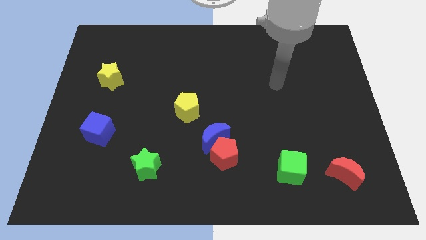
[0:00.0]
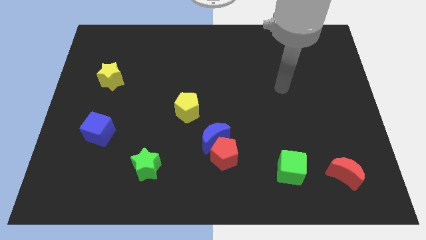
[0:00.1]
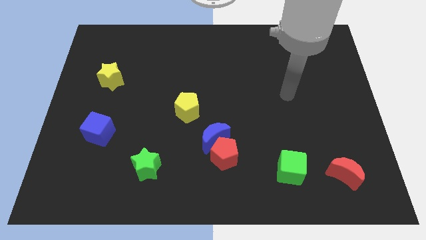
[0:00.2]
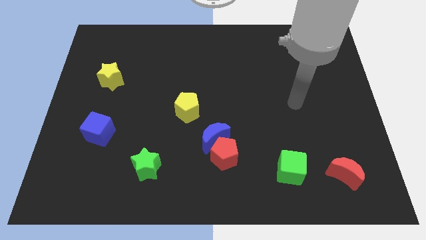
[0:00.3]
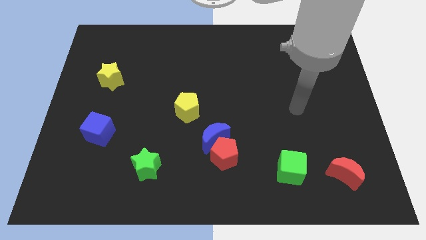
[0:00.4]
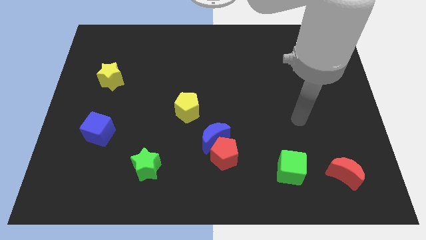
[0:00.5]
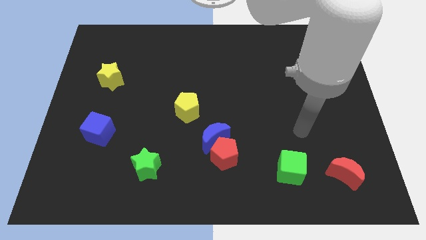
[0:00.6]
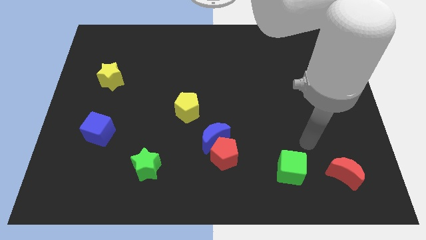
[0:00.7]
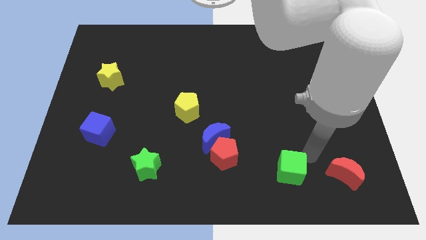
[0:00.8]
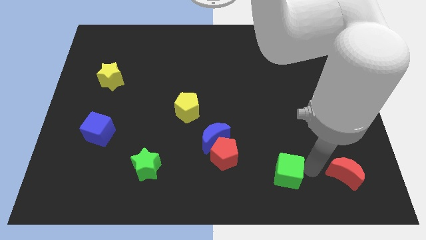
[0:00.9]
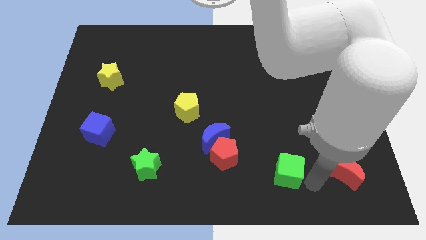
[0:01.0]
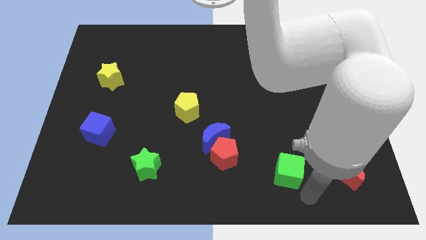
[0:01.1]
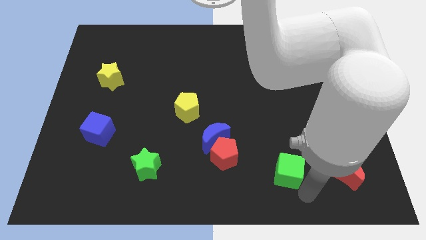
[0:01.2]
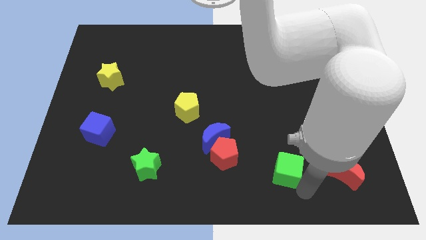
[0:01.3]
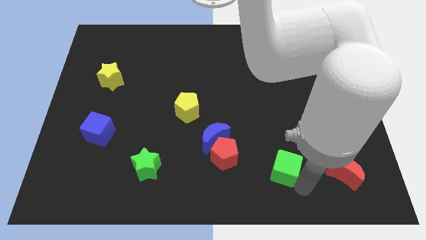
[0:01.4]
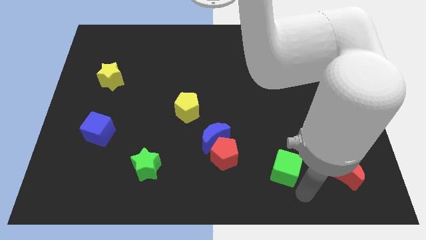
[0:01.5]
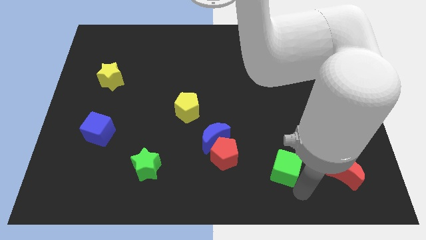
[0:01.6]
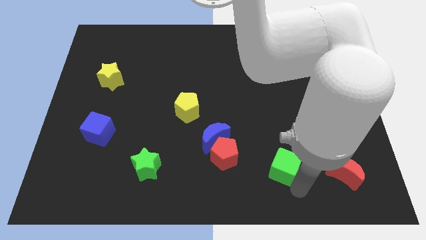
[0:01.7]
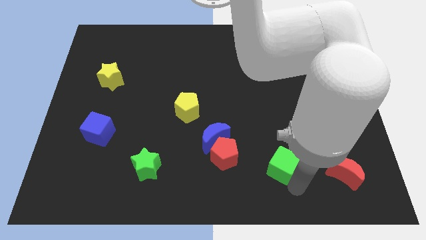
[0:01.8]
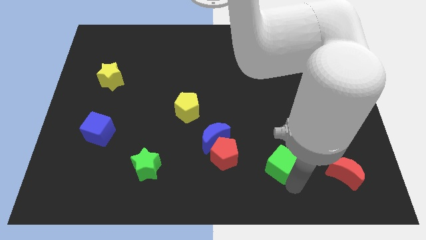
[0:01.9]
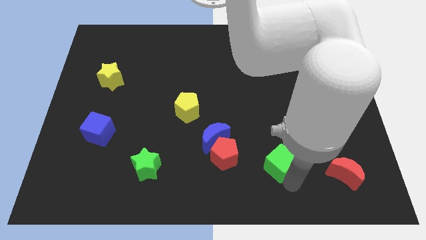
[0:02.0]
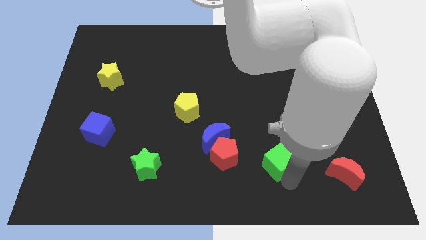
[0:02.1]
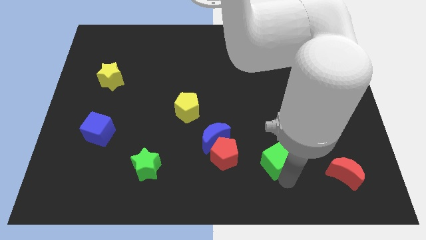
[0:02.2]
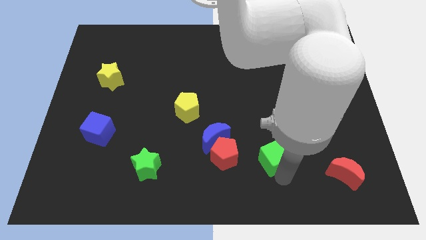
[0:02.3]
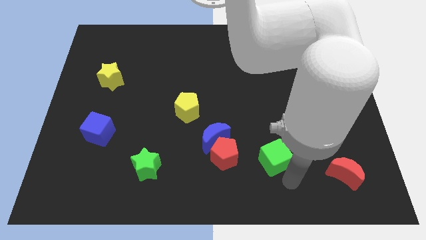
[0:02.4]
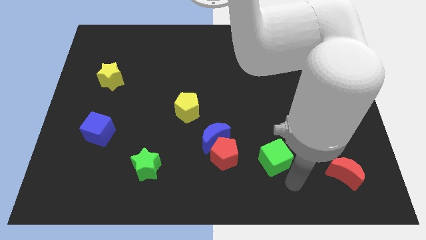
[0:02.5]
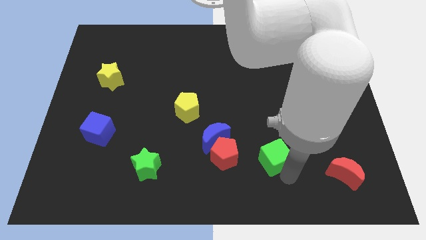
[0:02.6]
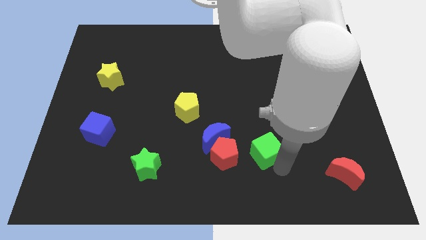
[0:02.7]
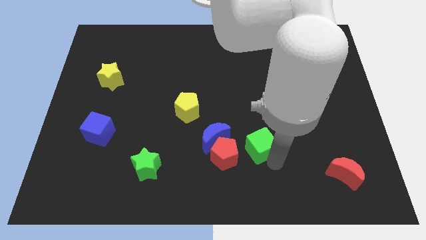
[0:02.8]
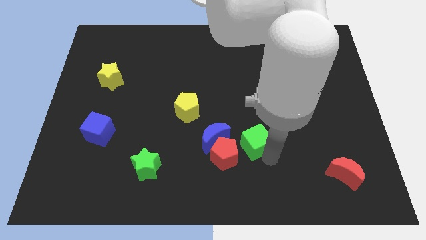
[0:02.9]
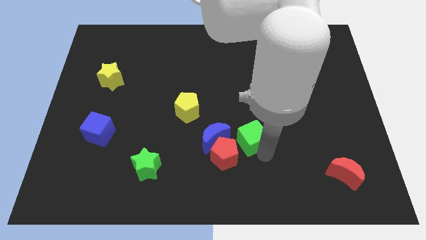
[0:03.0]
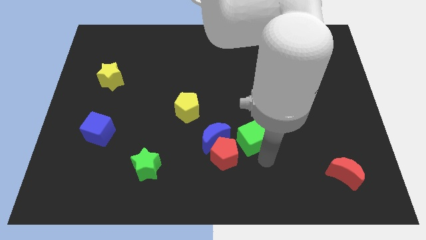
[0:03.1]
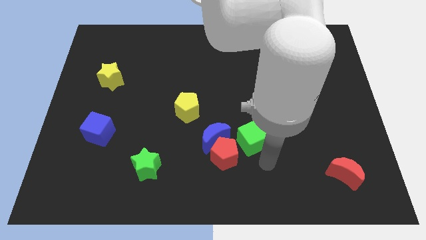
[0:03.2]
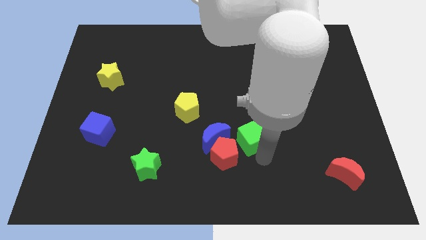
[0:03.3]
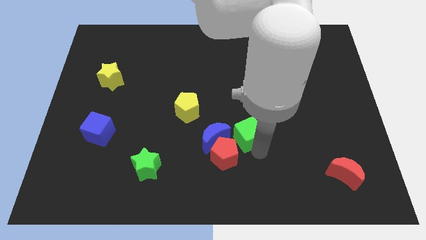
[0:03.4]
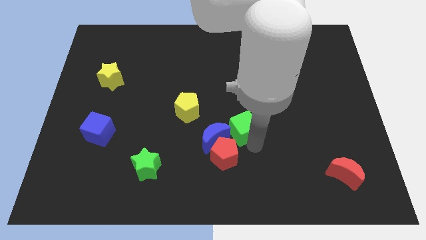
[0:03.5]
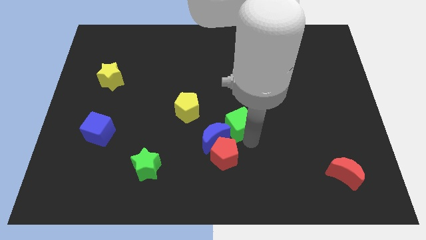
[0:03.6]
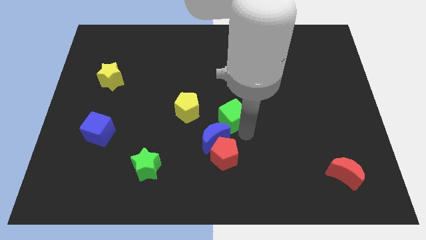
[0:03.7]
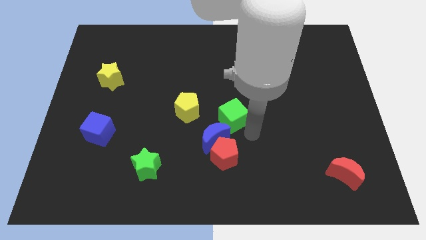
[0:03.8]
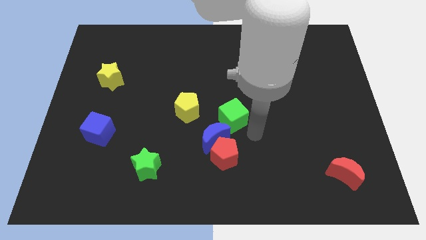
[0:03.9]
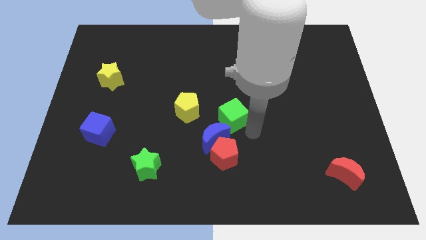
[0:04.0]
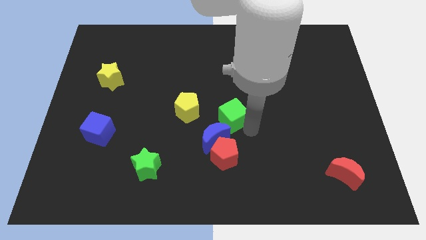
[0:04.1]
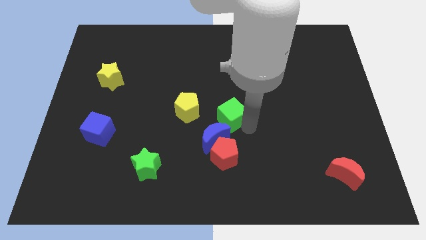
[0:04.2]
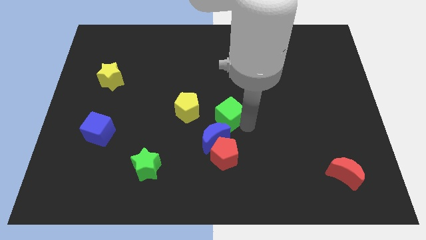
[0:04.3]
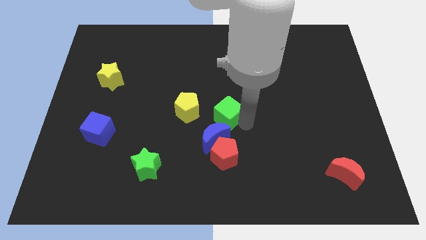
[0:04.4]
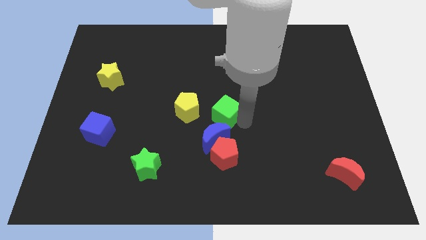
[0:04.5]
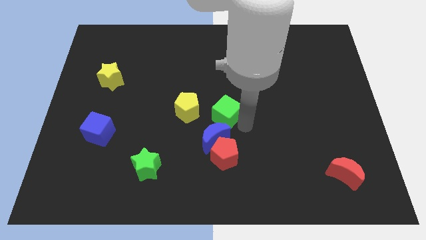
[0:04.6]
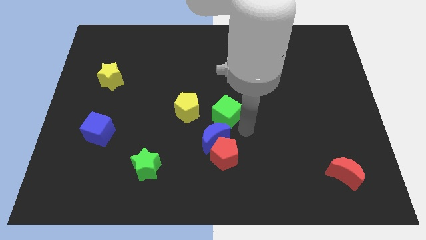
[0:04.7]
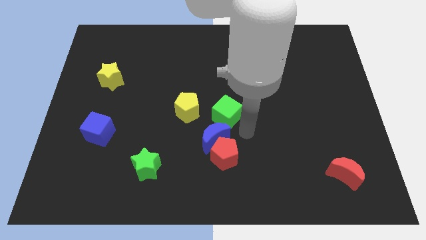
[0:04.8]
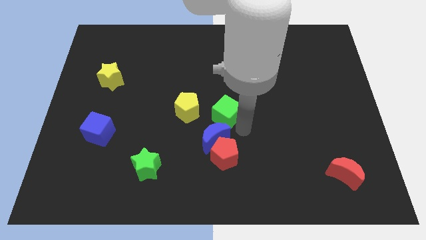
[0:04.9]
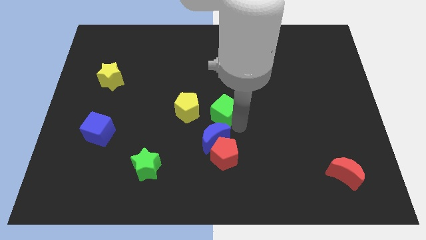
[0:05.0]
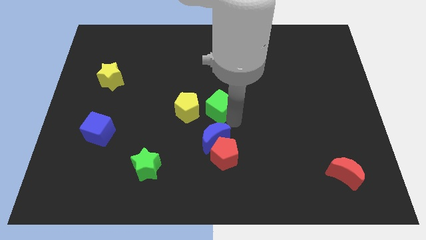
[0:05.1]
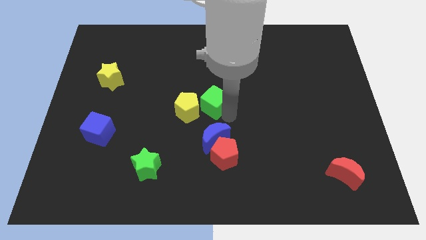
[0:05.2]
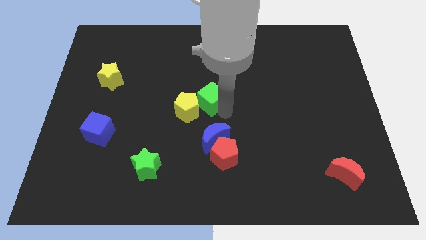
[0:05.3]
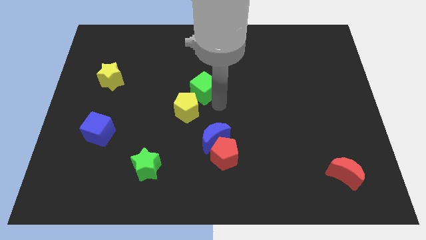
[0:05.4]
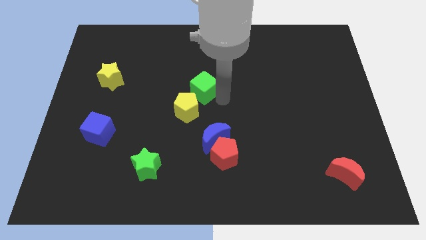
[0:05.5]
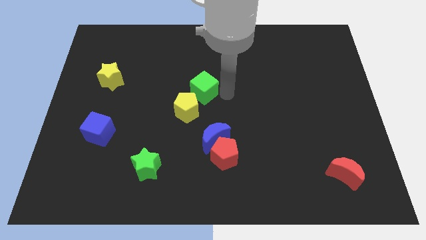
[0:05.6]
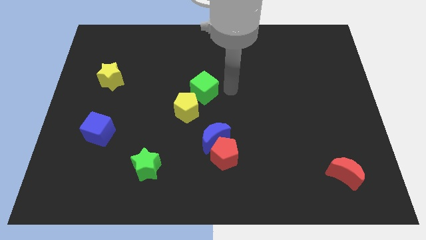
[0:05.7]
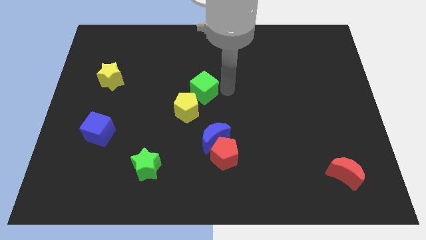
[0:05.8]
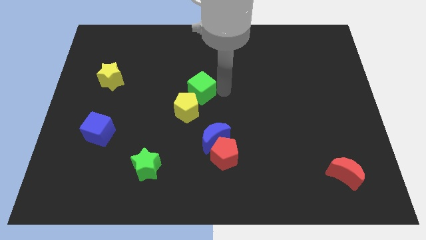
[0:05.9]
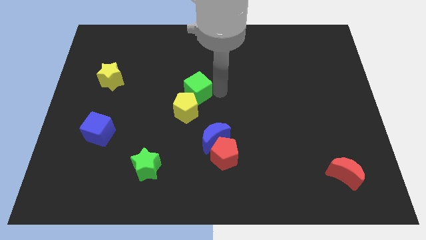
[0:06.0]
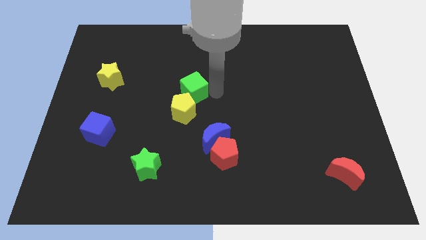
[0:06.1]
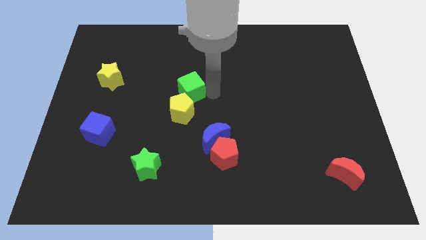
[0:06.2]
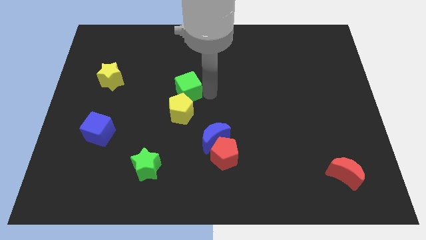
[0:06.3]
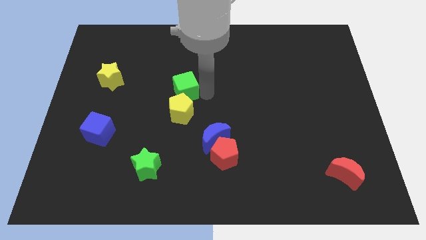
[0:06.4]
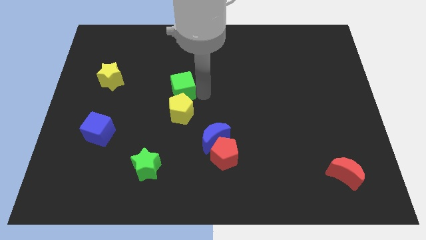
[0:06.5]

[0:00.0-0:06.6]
slide the green cube to the top left side of the yellow pentagon
